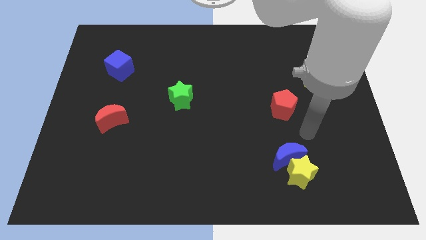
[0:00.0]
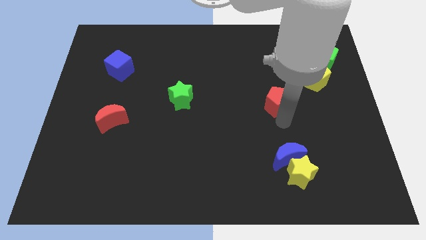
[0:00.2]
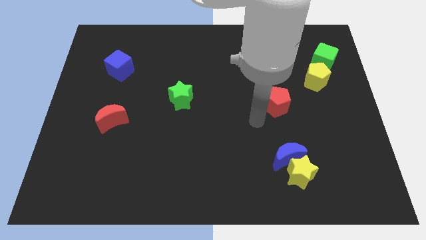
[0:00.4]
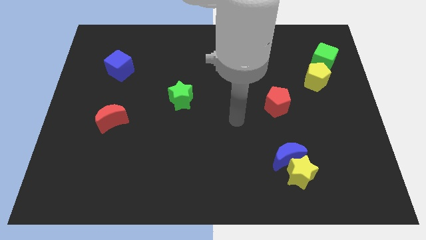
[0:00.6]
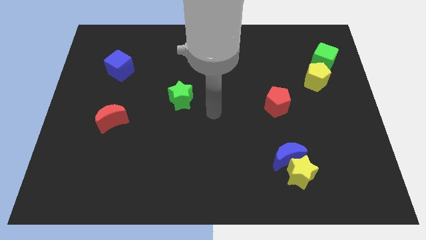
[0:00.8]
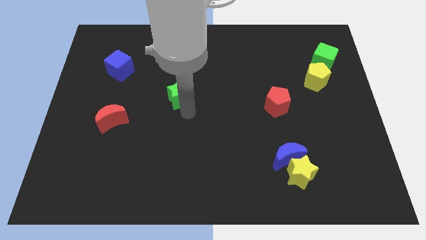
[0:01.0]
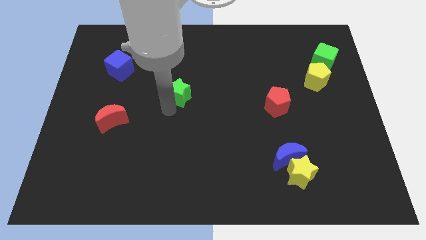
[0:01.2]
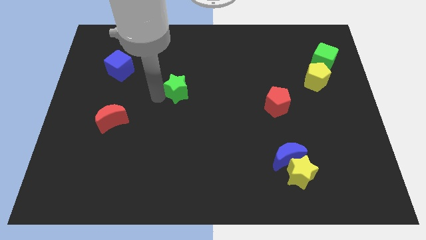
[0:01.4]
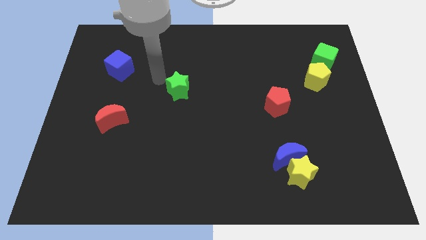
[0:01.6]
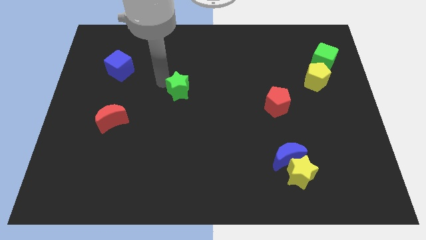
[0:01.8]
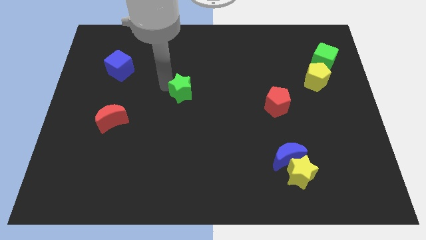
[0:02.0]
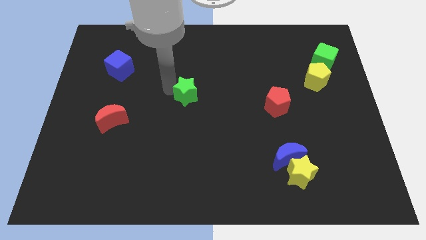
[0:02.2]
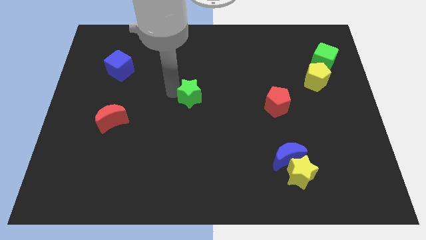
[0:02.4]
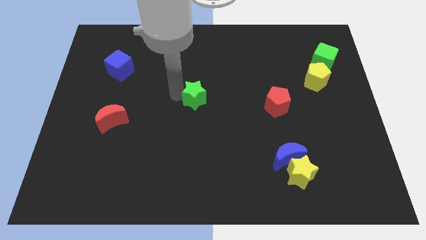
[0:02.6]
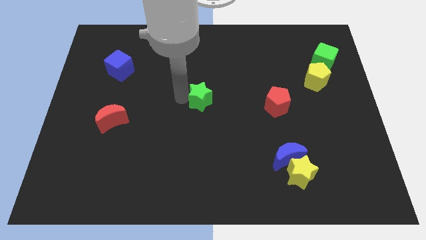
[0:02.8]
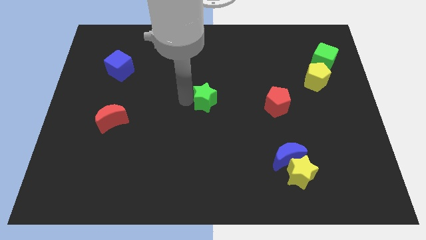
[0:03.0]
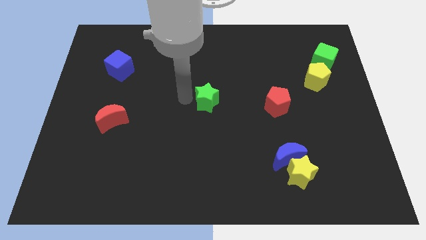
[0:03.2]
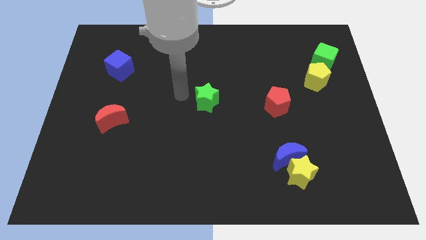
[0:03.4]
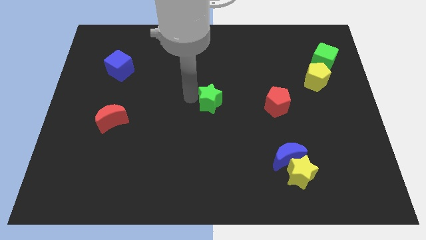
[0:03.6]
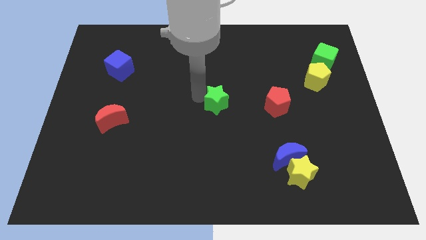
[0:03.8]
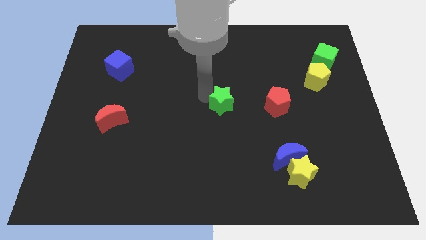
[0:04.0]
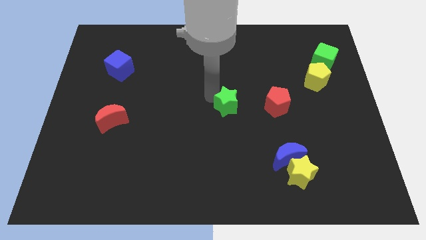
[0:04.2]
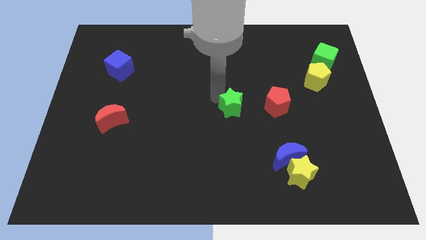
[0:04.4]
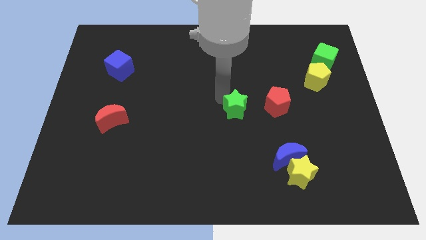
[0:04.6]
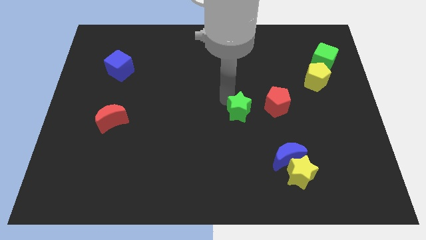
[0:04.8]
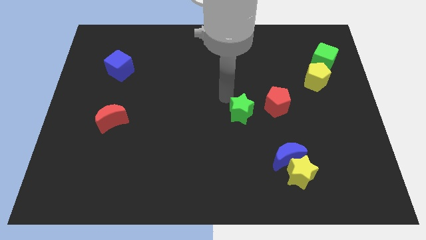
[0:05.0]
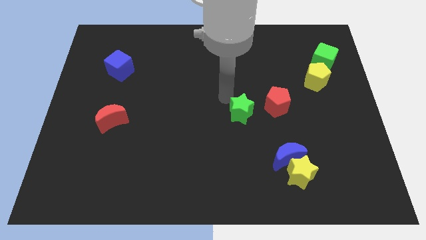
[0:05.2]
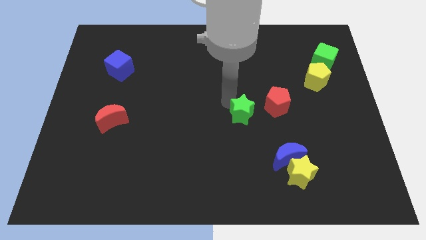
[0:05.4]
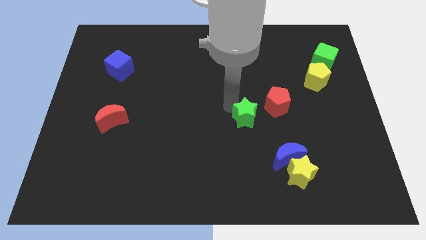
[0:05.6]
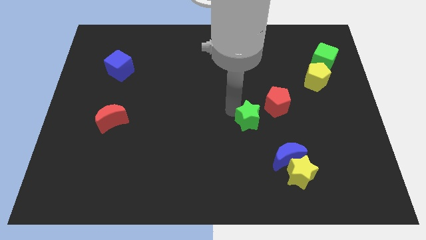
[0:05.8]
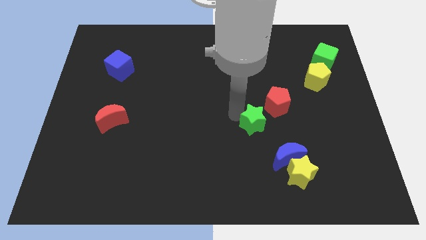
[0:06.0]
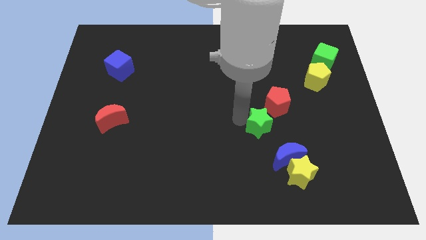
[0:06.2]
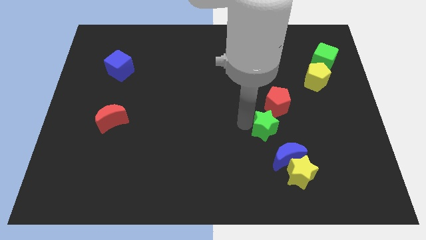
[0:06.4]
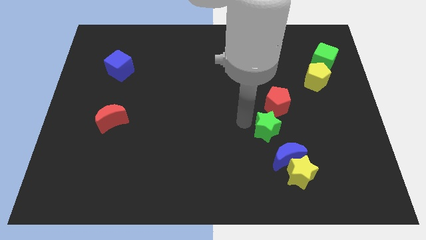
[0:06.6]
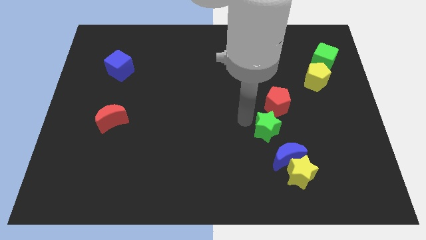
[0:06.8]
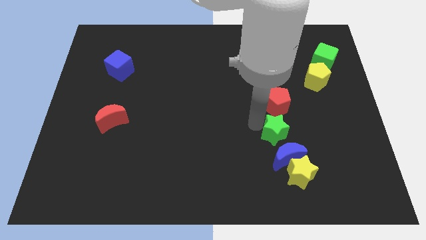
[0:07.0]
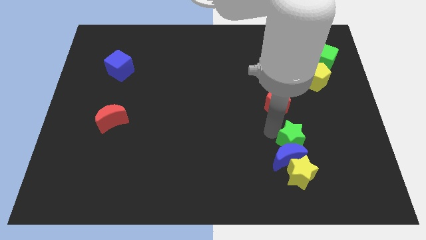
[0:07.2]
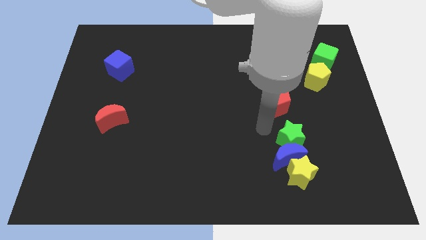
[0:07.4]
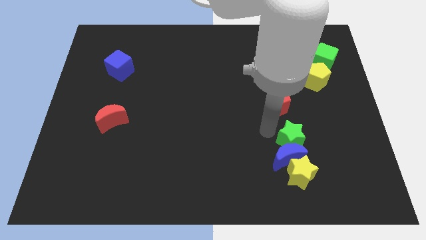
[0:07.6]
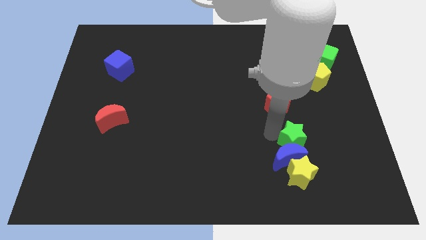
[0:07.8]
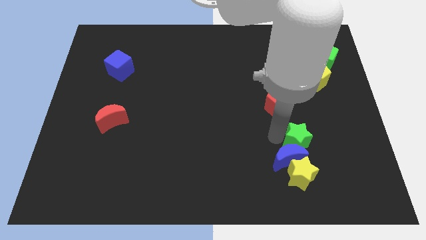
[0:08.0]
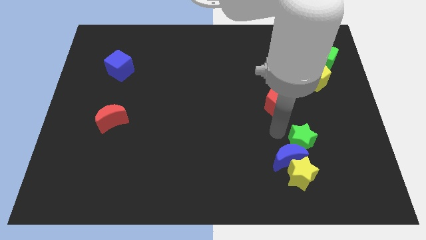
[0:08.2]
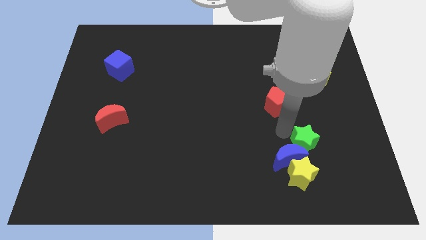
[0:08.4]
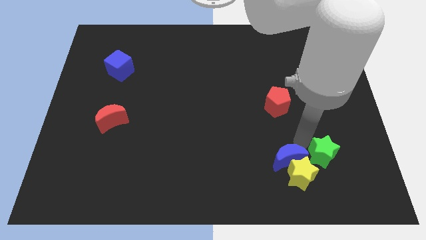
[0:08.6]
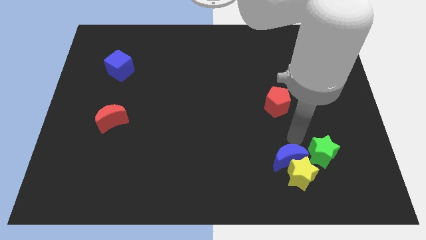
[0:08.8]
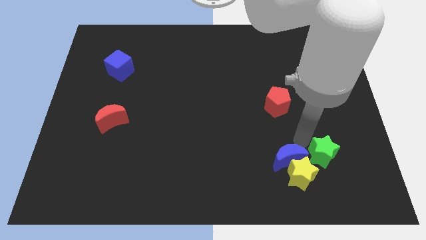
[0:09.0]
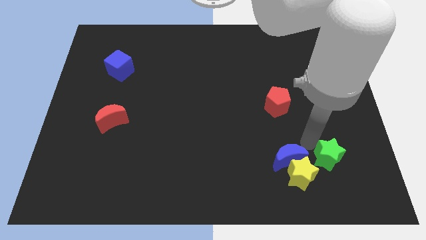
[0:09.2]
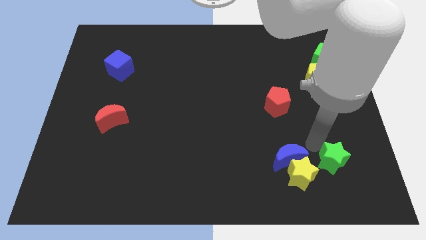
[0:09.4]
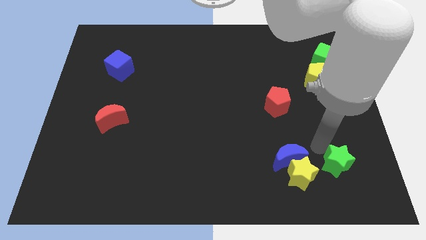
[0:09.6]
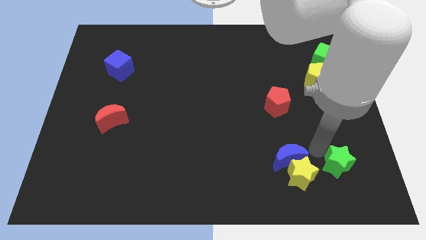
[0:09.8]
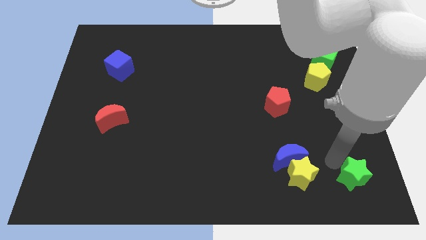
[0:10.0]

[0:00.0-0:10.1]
move the green star to the lower right corner

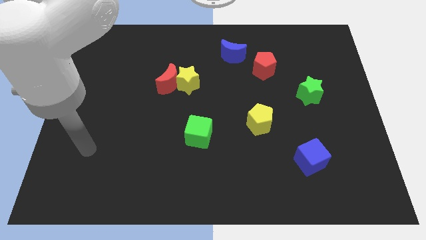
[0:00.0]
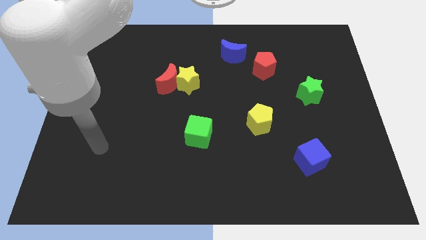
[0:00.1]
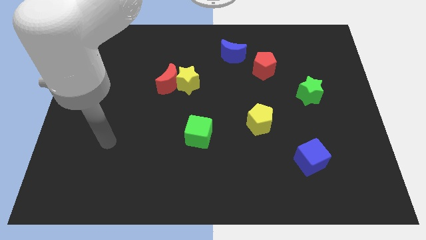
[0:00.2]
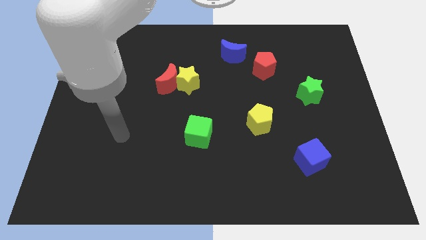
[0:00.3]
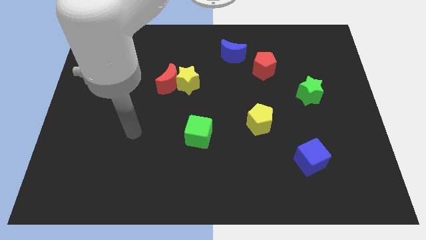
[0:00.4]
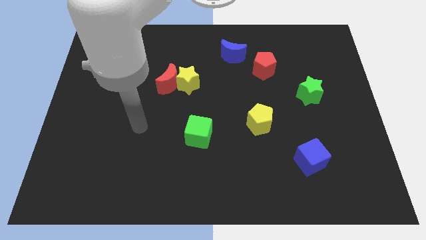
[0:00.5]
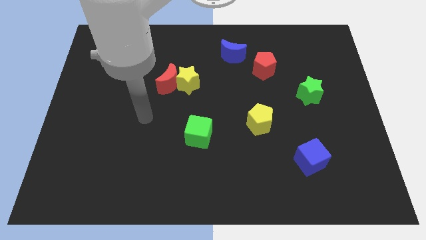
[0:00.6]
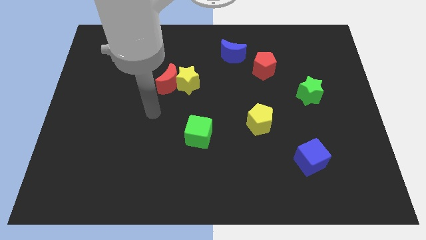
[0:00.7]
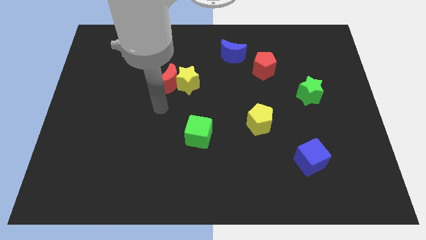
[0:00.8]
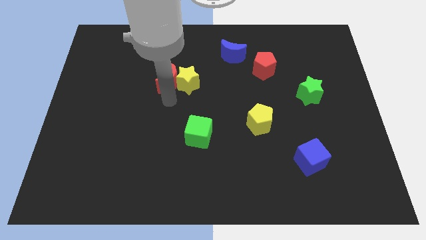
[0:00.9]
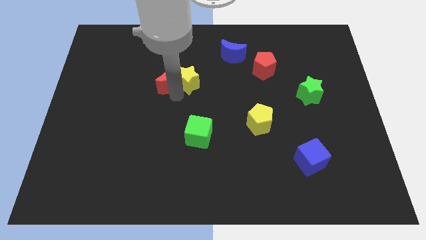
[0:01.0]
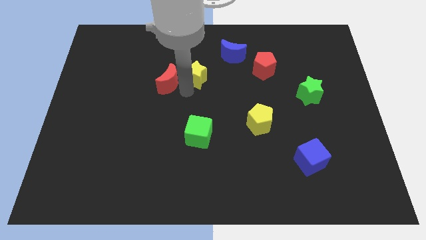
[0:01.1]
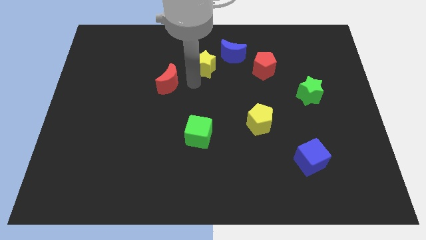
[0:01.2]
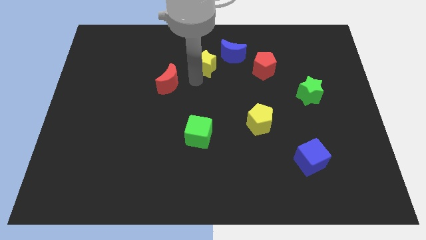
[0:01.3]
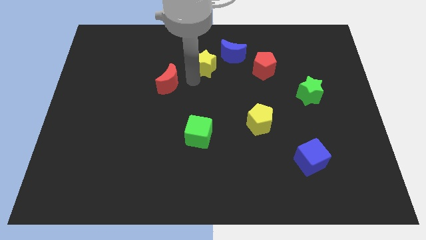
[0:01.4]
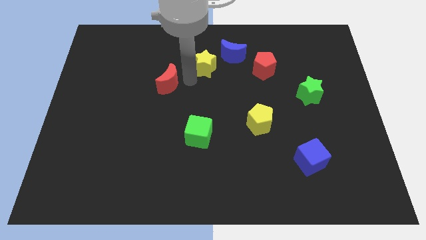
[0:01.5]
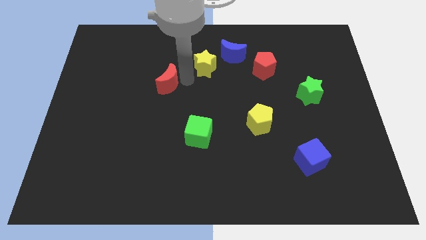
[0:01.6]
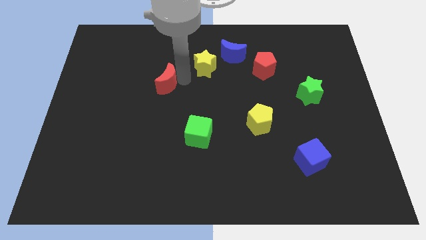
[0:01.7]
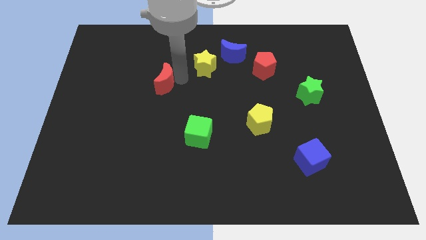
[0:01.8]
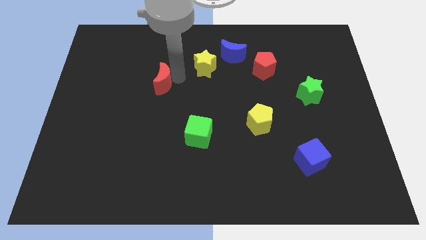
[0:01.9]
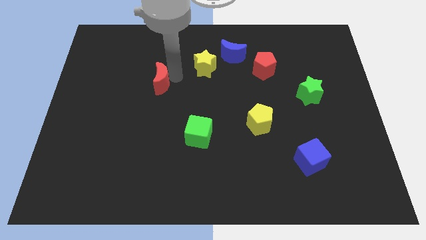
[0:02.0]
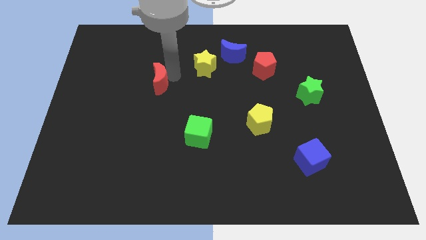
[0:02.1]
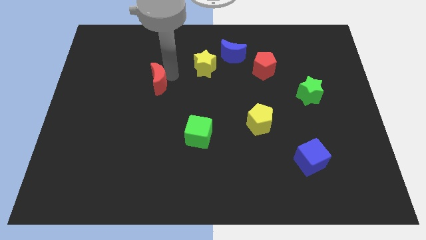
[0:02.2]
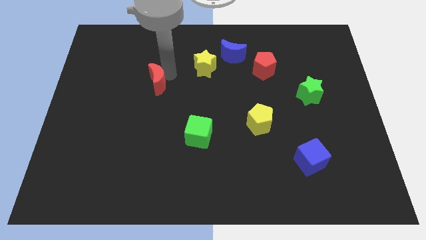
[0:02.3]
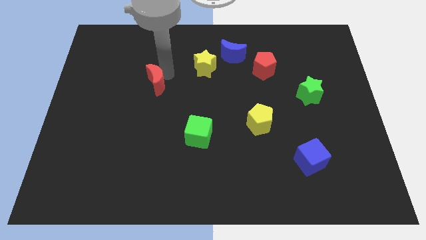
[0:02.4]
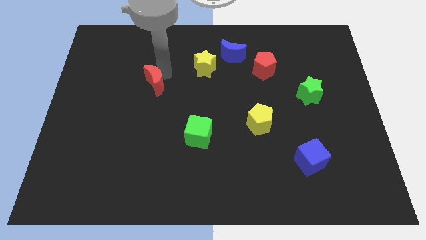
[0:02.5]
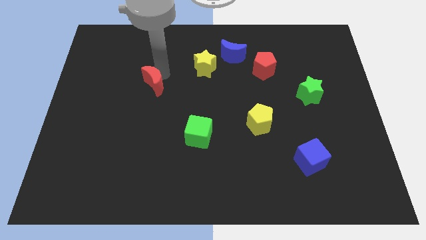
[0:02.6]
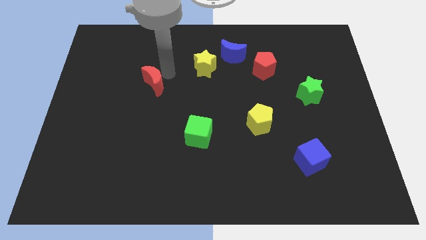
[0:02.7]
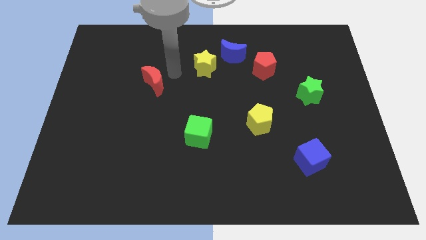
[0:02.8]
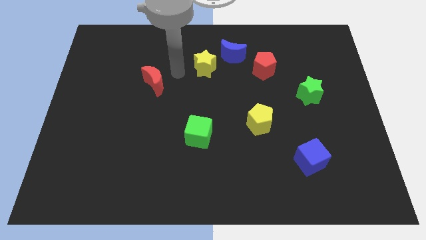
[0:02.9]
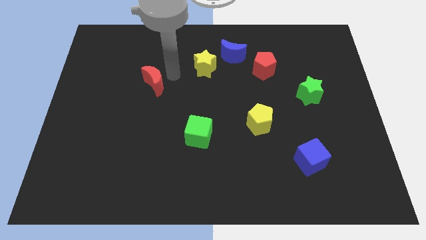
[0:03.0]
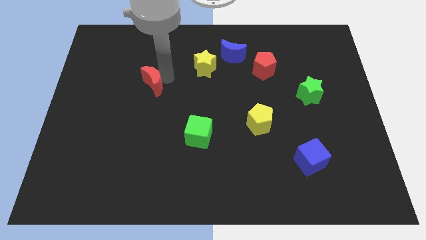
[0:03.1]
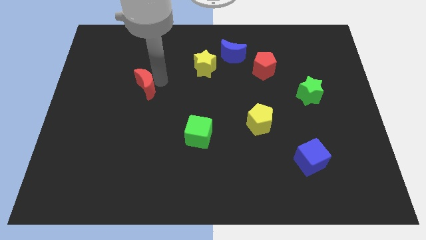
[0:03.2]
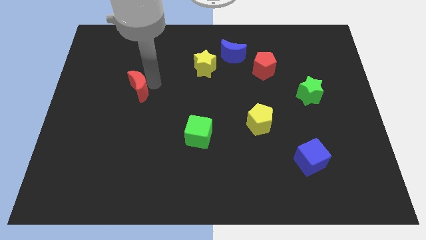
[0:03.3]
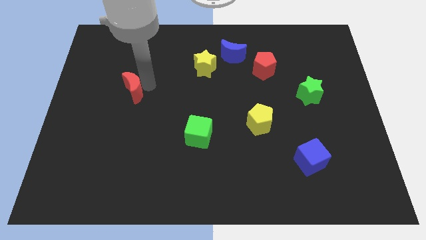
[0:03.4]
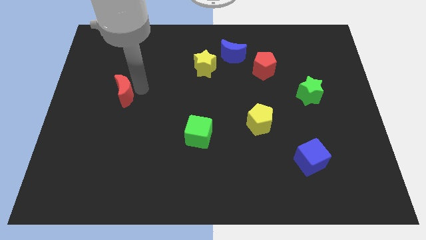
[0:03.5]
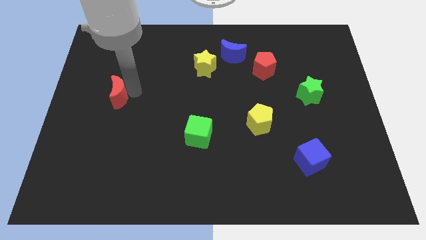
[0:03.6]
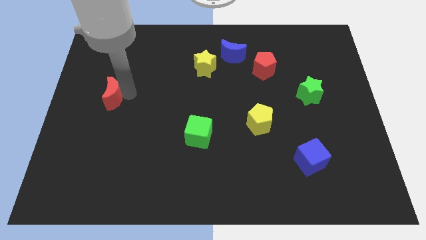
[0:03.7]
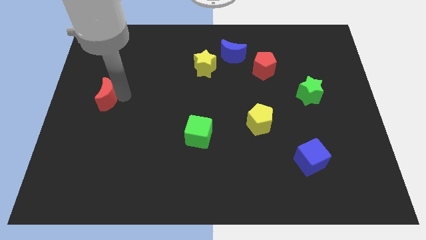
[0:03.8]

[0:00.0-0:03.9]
move the red moon to the left side
